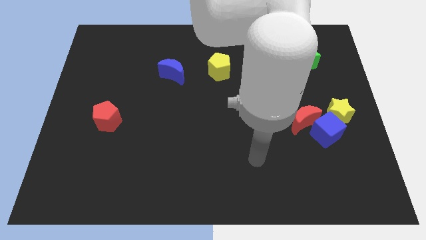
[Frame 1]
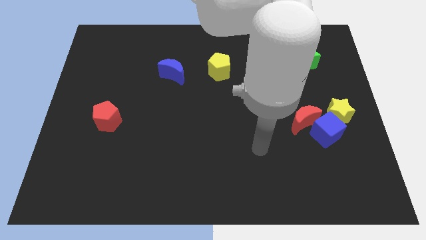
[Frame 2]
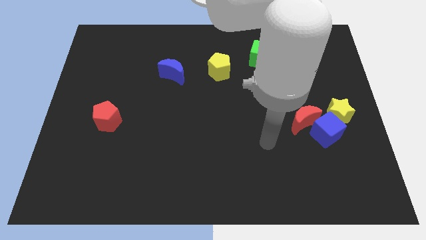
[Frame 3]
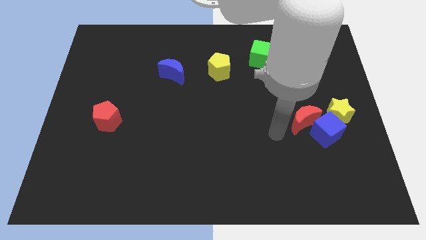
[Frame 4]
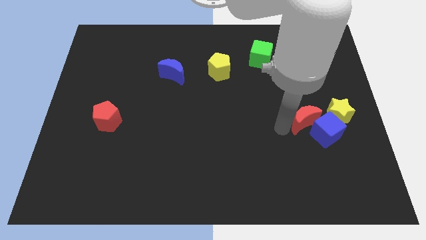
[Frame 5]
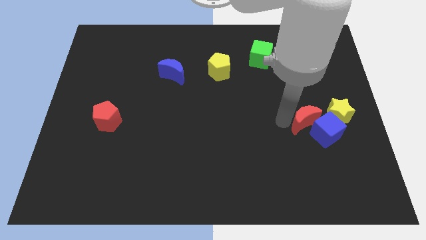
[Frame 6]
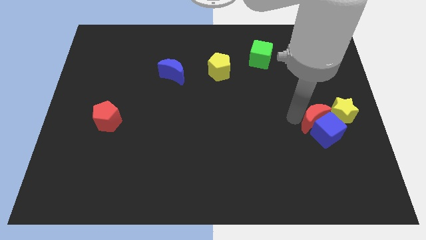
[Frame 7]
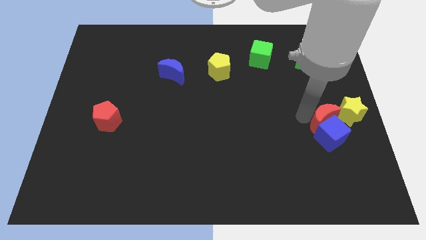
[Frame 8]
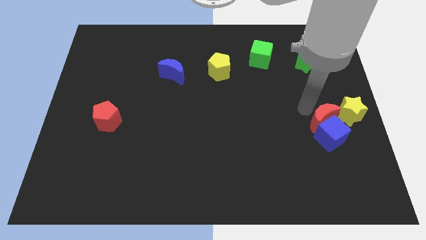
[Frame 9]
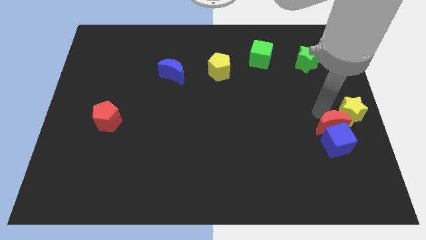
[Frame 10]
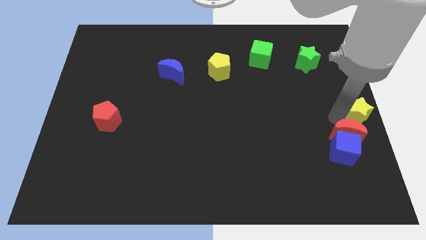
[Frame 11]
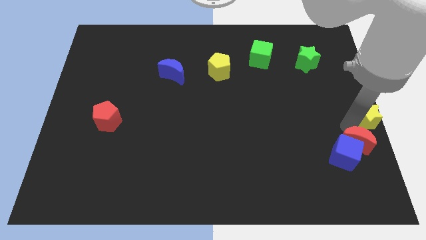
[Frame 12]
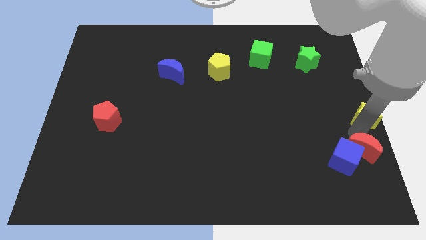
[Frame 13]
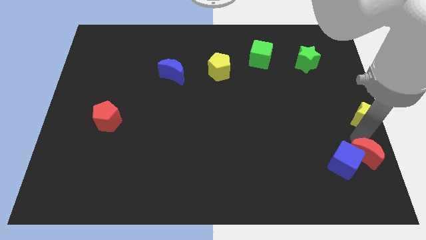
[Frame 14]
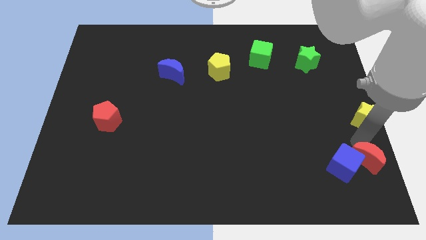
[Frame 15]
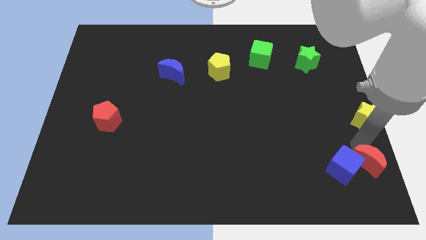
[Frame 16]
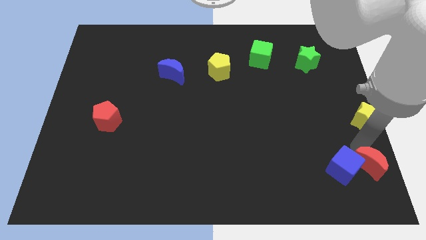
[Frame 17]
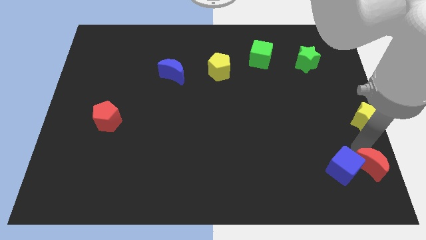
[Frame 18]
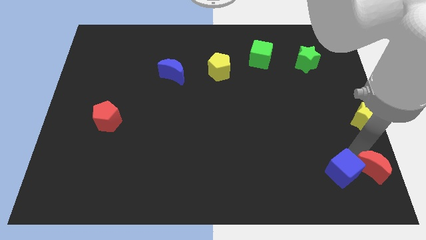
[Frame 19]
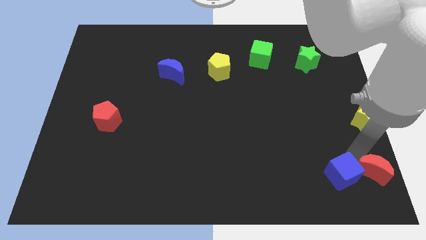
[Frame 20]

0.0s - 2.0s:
move the blue cube away from the yellow star and red moon

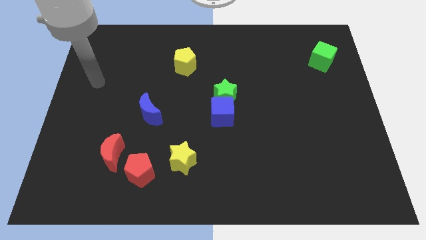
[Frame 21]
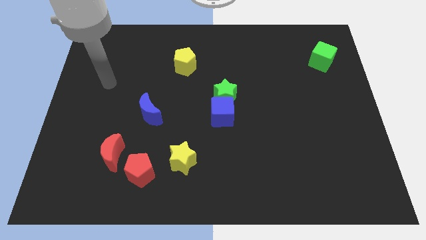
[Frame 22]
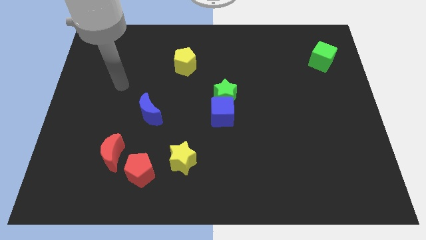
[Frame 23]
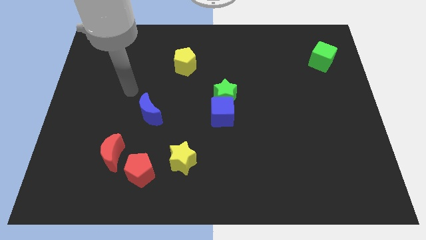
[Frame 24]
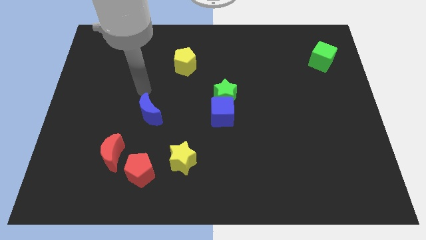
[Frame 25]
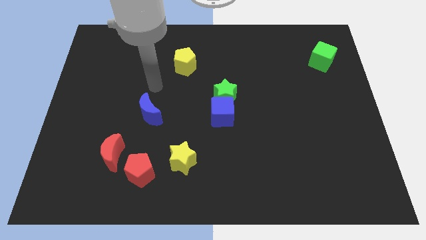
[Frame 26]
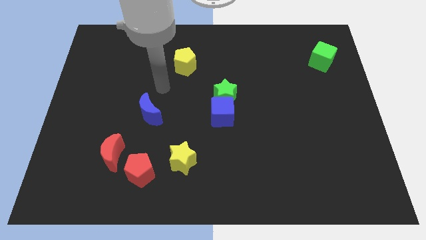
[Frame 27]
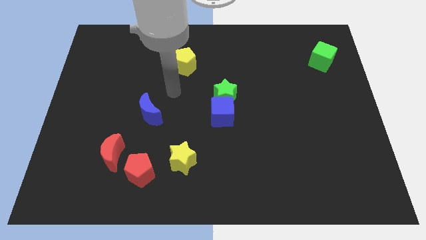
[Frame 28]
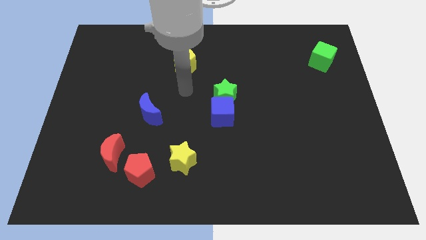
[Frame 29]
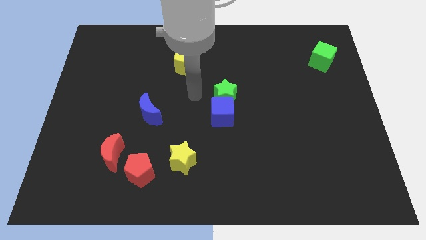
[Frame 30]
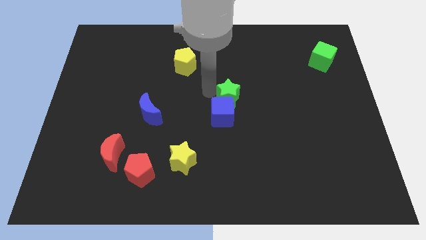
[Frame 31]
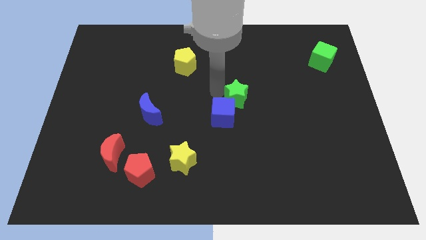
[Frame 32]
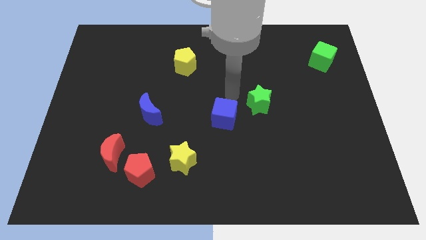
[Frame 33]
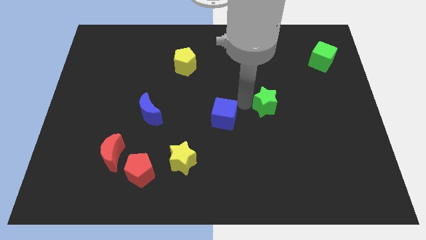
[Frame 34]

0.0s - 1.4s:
pull the blue cube apart from the green star

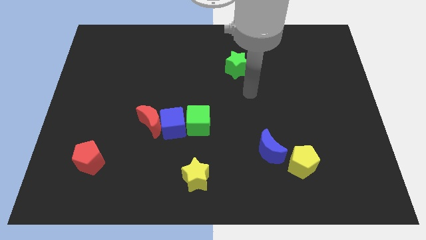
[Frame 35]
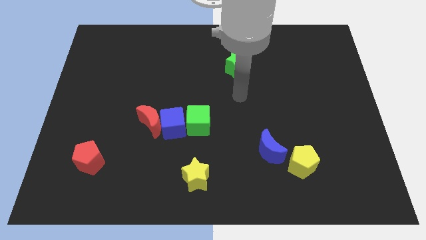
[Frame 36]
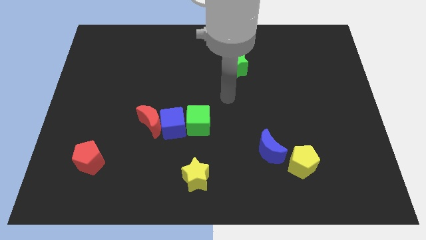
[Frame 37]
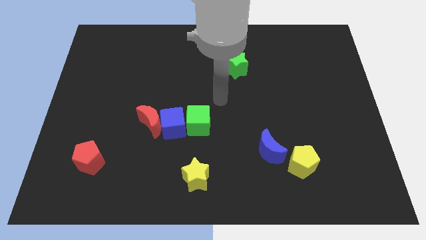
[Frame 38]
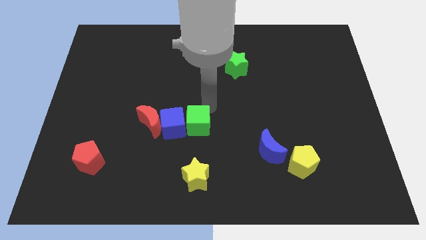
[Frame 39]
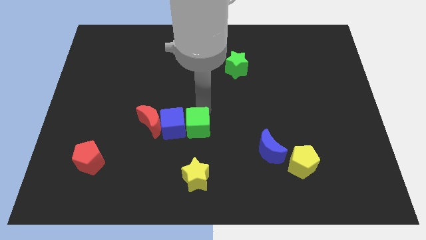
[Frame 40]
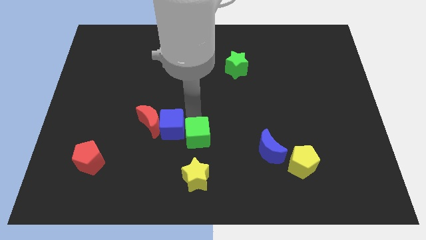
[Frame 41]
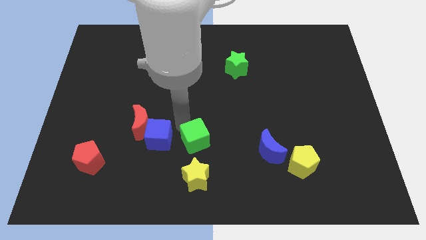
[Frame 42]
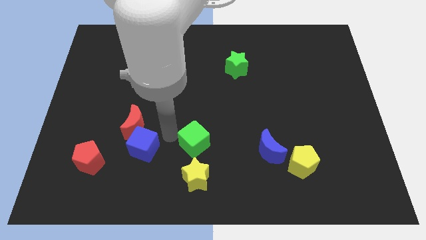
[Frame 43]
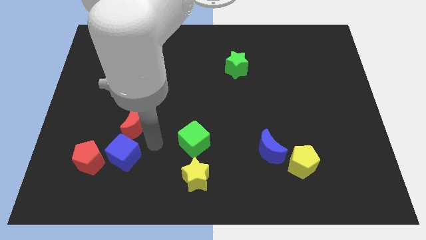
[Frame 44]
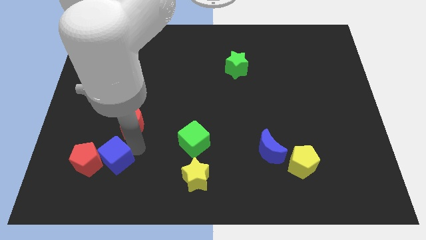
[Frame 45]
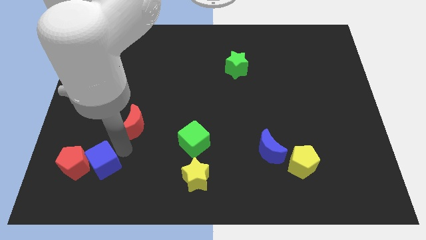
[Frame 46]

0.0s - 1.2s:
pull the red moon apart from the blue cube

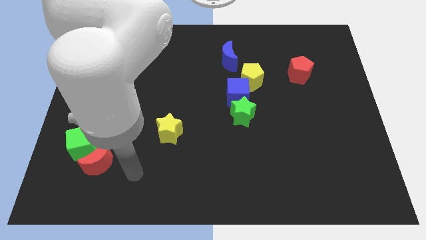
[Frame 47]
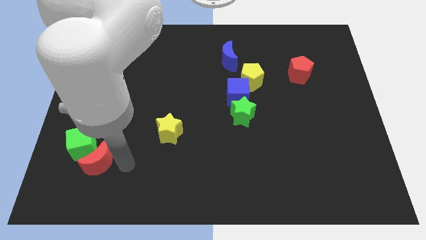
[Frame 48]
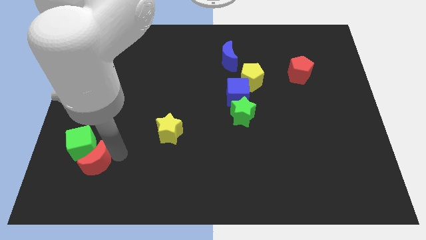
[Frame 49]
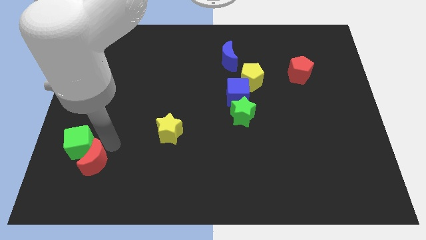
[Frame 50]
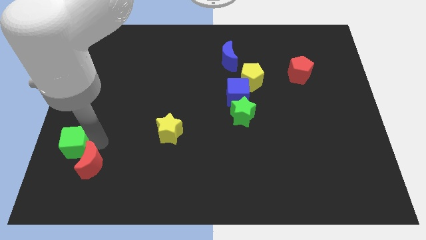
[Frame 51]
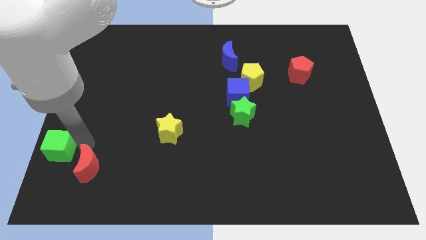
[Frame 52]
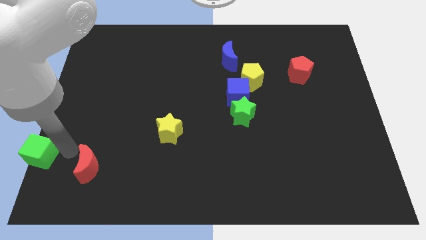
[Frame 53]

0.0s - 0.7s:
pull the red moon apart from the green cube

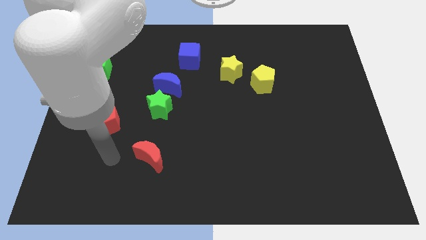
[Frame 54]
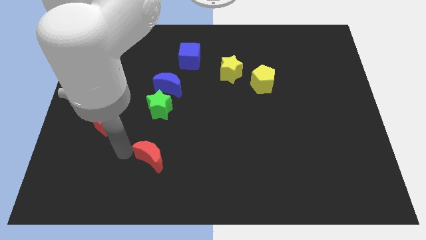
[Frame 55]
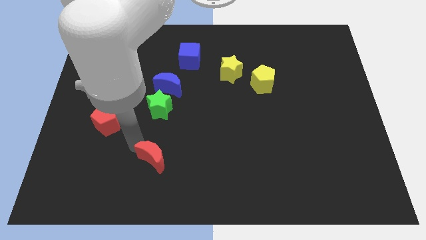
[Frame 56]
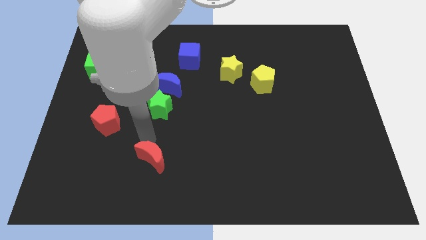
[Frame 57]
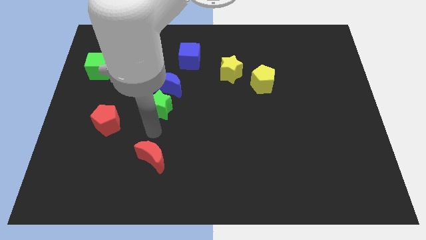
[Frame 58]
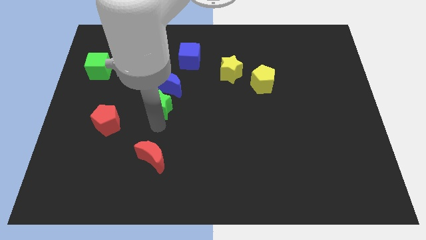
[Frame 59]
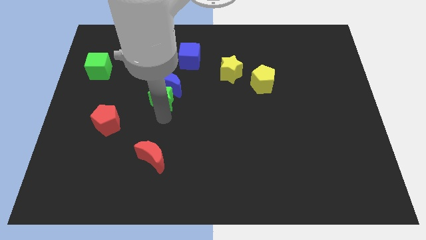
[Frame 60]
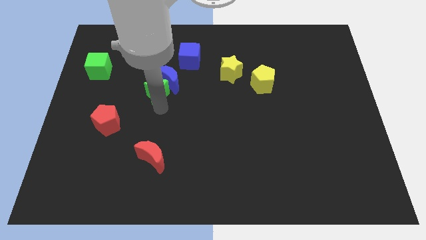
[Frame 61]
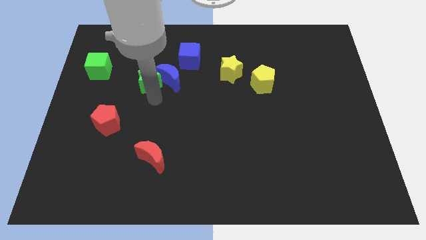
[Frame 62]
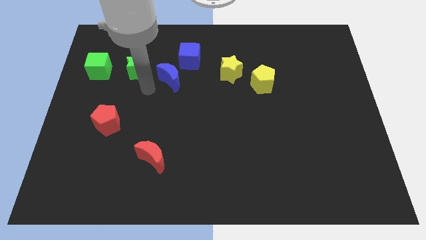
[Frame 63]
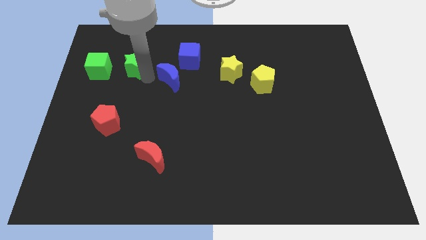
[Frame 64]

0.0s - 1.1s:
pull the blue moon apart from the green star

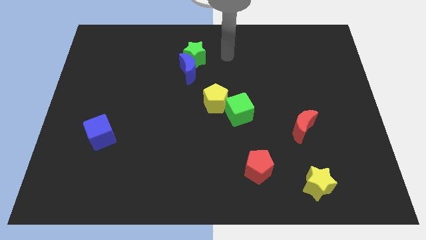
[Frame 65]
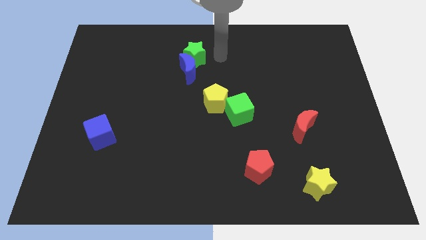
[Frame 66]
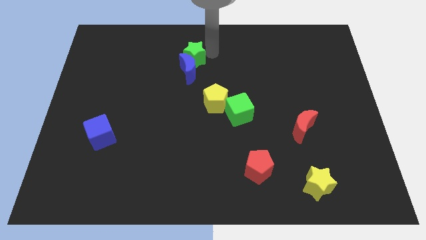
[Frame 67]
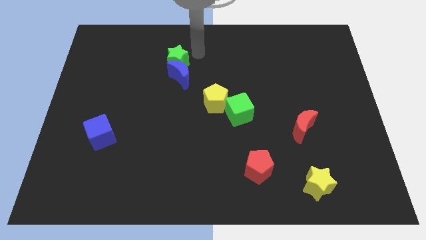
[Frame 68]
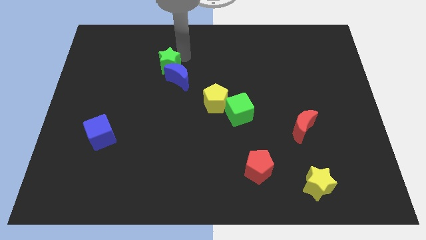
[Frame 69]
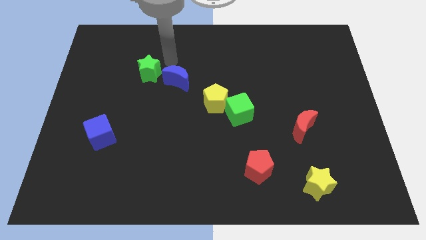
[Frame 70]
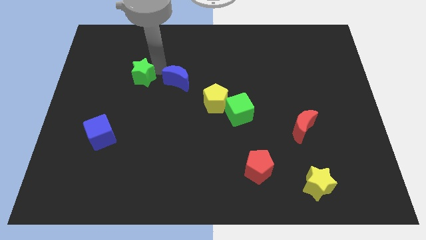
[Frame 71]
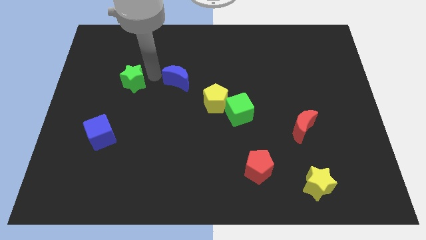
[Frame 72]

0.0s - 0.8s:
separate the blue moon from the green star

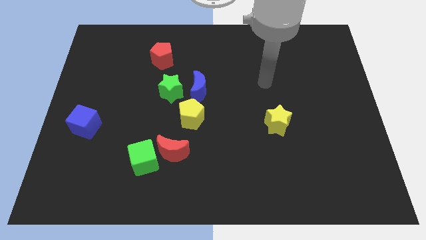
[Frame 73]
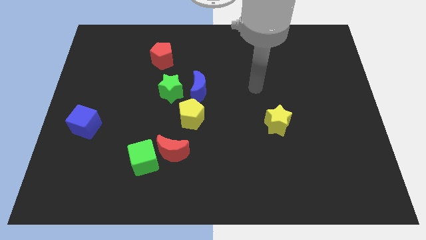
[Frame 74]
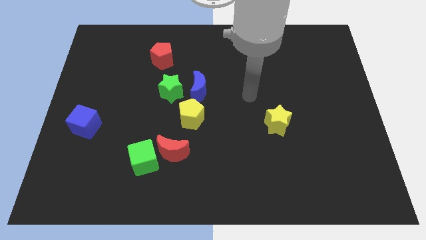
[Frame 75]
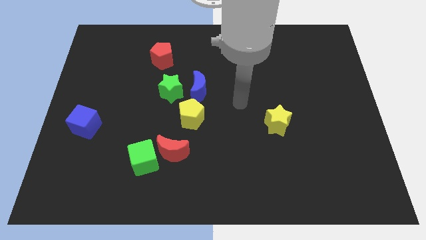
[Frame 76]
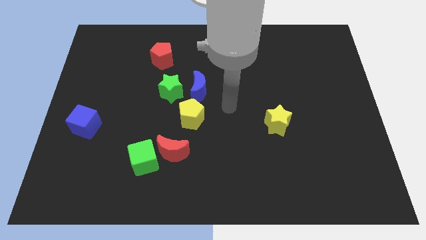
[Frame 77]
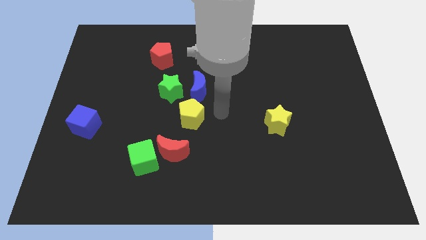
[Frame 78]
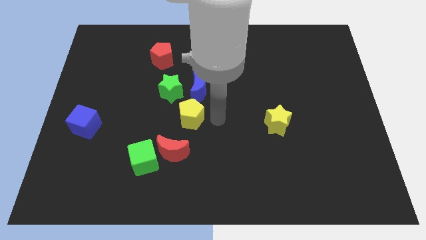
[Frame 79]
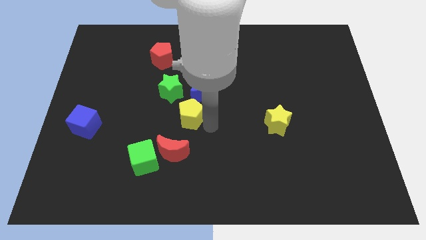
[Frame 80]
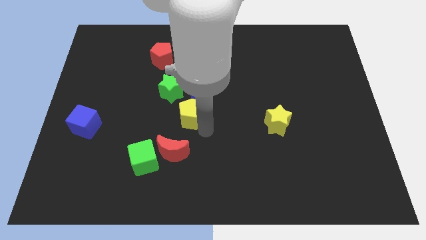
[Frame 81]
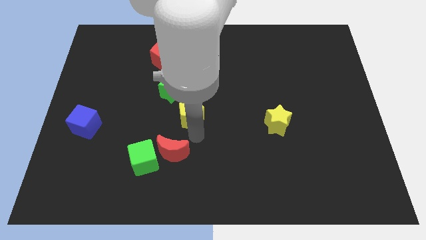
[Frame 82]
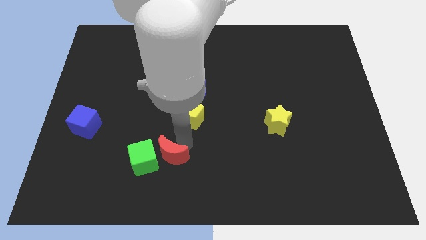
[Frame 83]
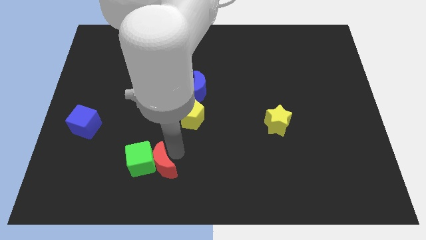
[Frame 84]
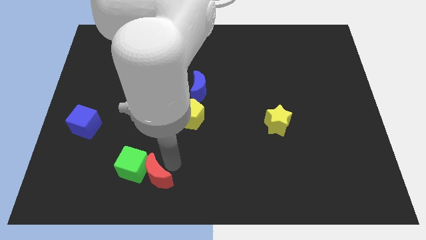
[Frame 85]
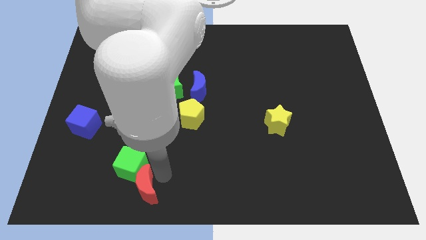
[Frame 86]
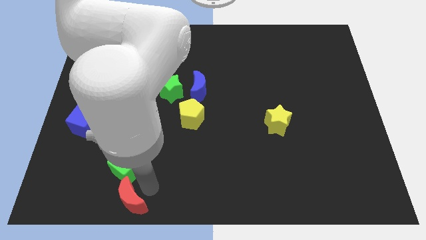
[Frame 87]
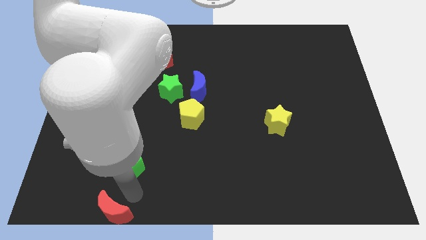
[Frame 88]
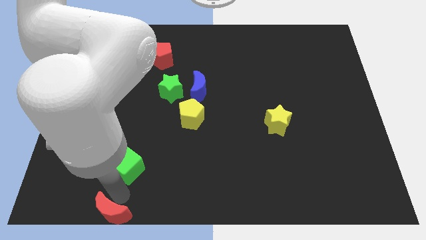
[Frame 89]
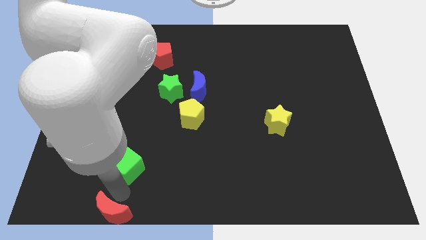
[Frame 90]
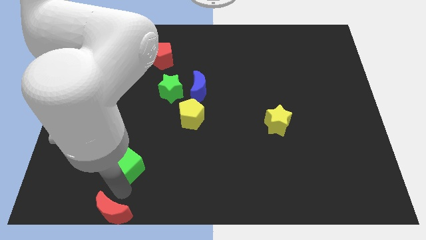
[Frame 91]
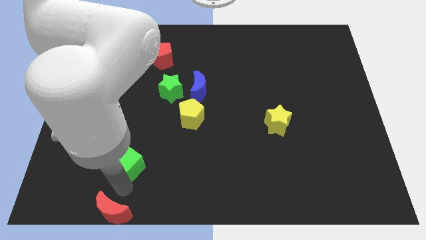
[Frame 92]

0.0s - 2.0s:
separate the green cube from the red moon
